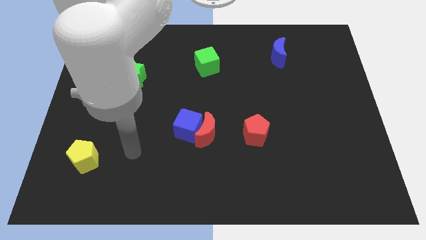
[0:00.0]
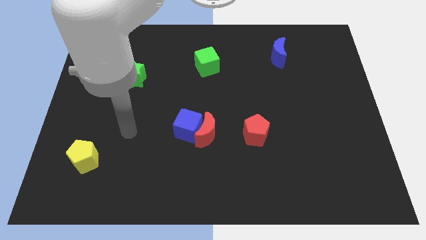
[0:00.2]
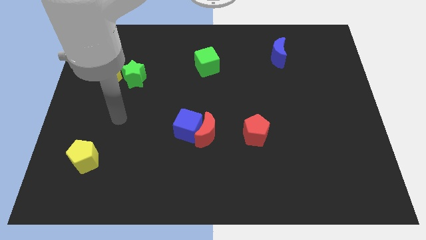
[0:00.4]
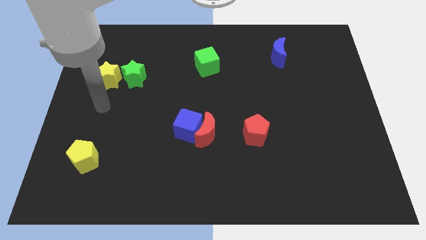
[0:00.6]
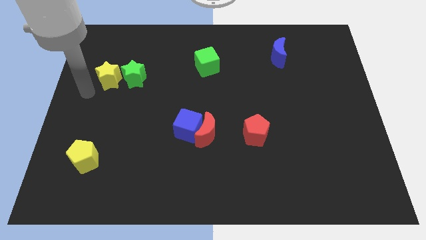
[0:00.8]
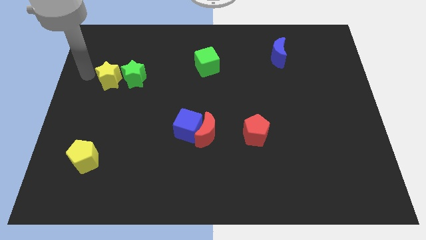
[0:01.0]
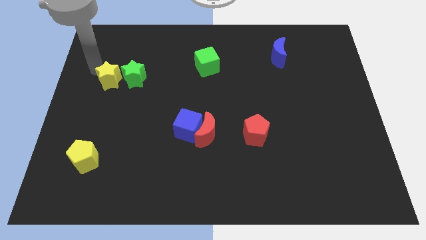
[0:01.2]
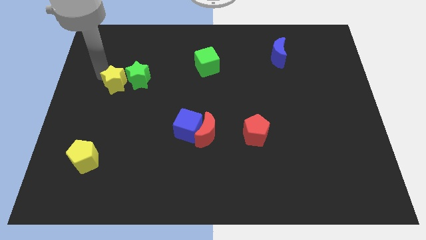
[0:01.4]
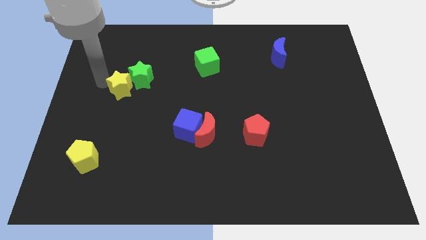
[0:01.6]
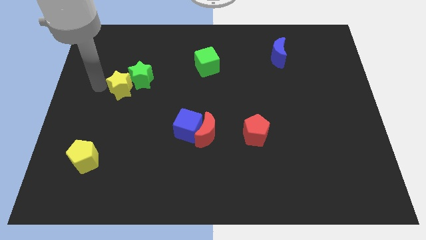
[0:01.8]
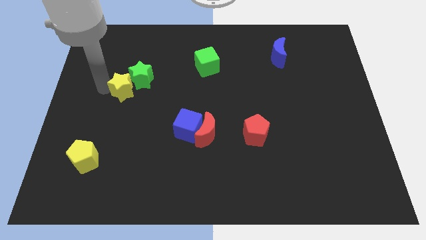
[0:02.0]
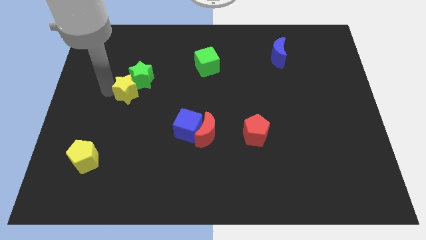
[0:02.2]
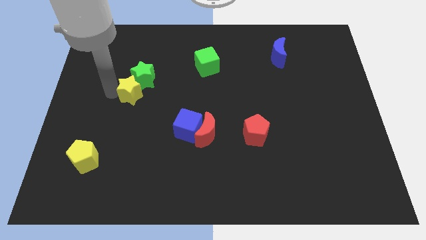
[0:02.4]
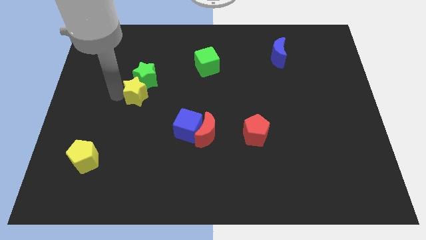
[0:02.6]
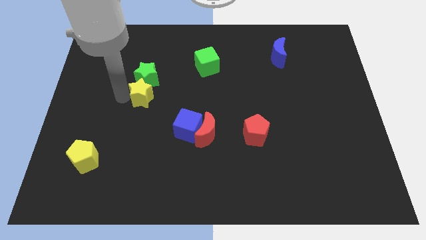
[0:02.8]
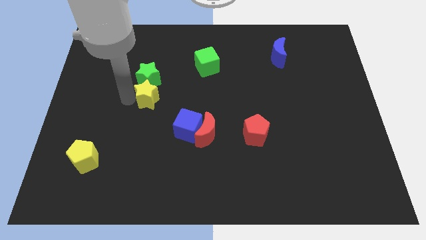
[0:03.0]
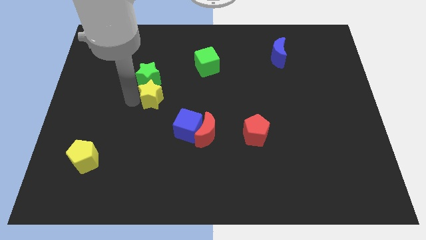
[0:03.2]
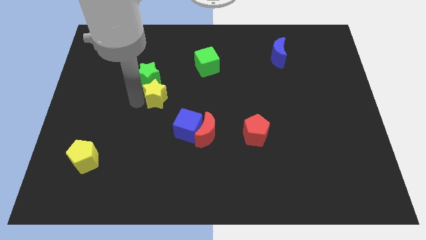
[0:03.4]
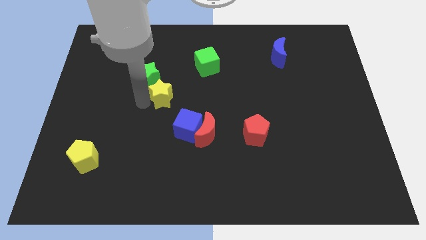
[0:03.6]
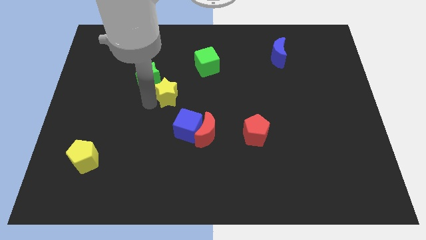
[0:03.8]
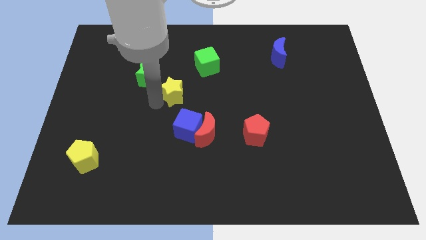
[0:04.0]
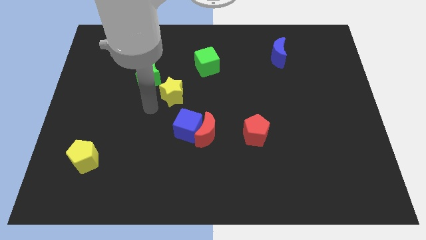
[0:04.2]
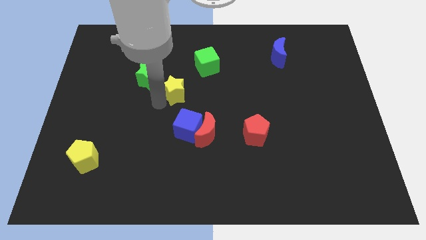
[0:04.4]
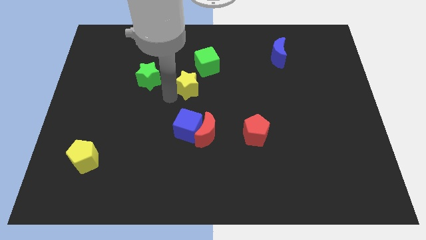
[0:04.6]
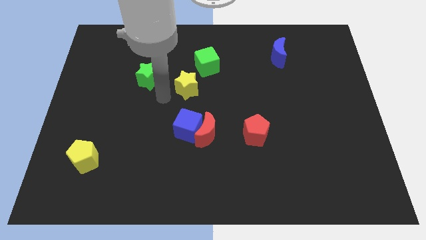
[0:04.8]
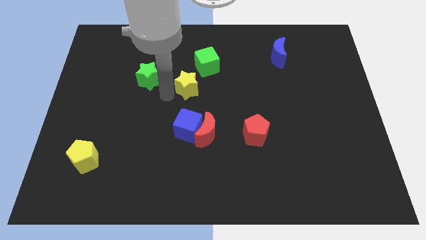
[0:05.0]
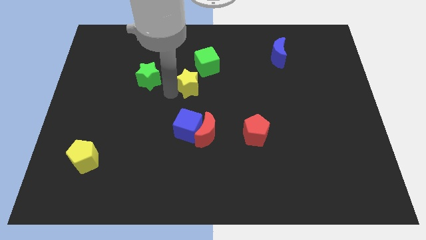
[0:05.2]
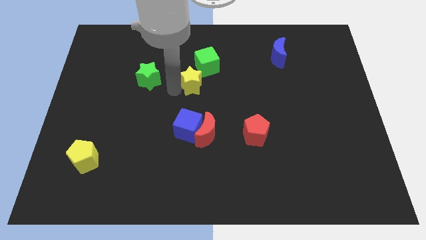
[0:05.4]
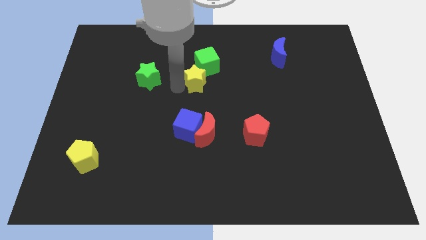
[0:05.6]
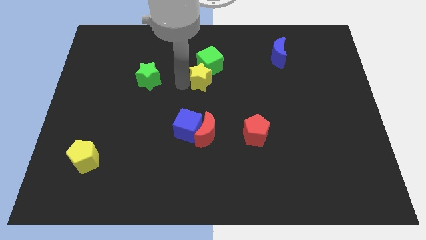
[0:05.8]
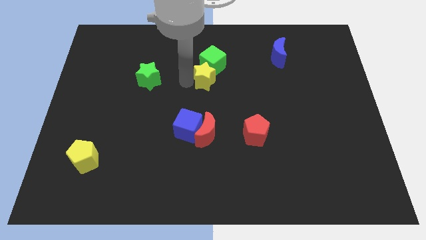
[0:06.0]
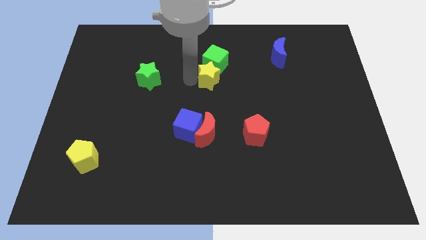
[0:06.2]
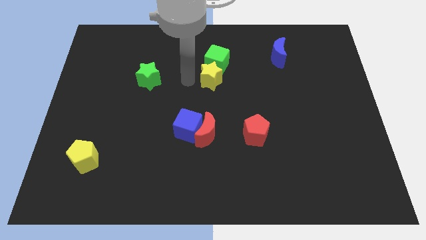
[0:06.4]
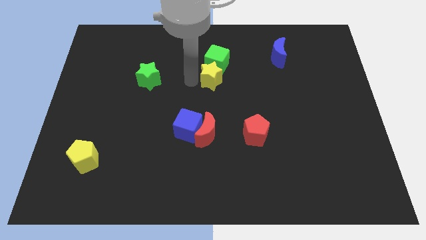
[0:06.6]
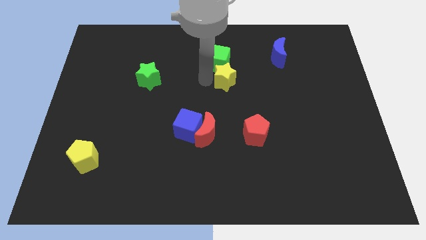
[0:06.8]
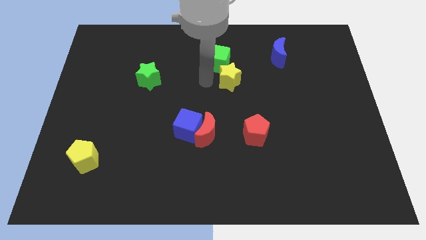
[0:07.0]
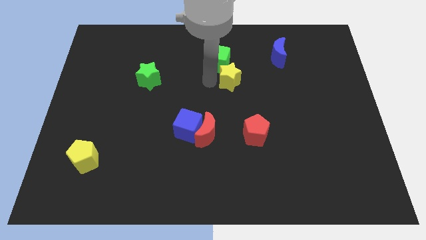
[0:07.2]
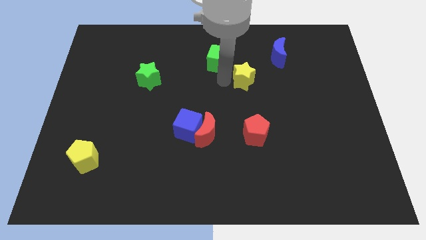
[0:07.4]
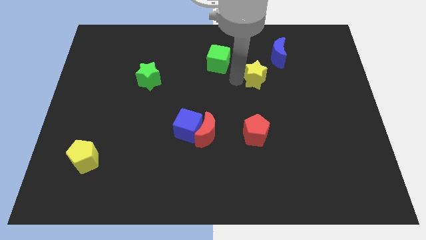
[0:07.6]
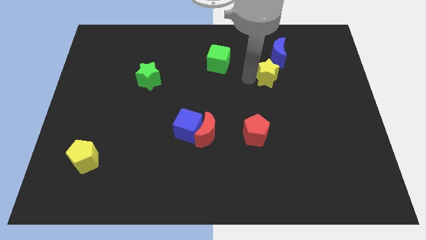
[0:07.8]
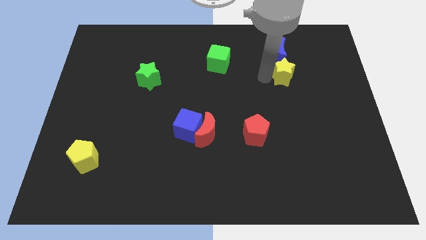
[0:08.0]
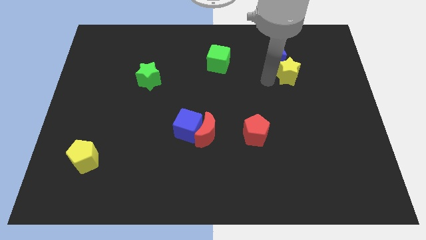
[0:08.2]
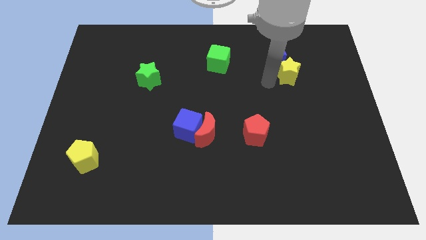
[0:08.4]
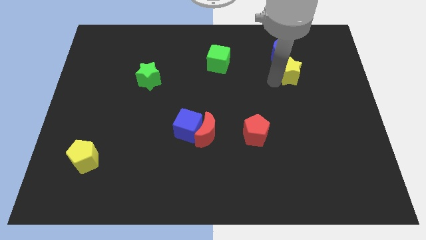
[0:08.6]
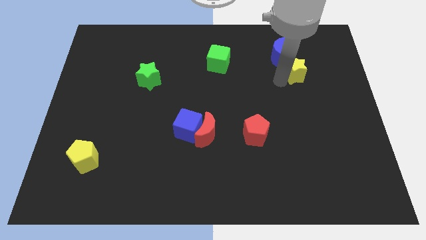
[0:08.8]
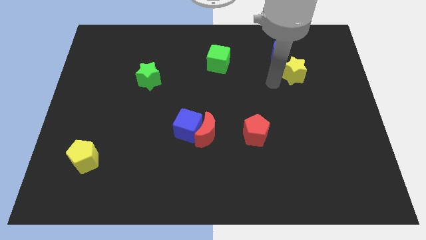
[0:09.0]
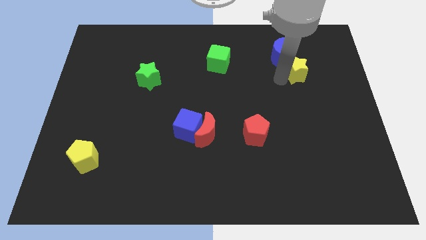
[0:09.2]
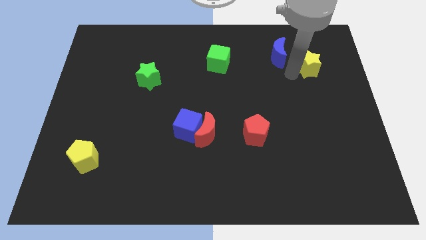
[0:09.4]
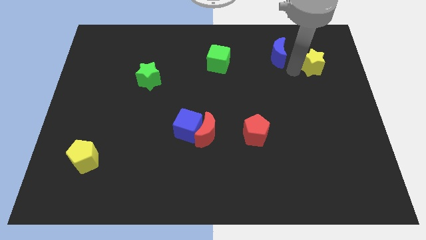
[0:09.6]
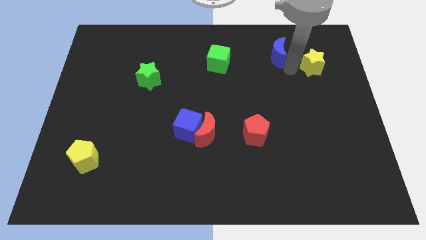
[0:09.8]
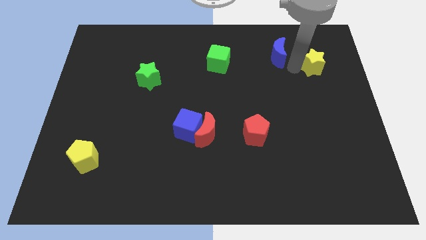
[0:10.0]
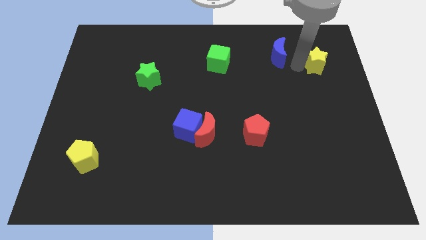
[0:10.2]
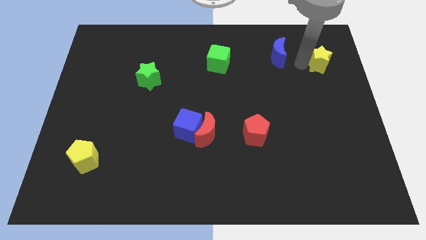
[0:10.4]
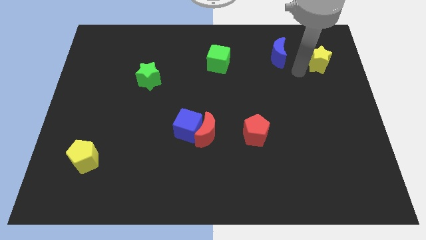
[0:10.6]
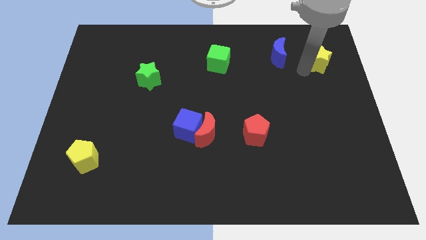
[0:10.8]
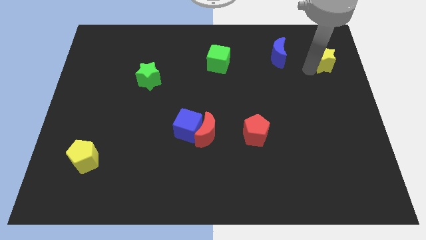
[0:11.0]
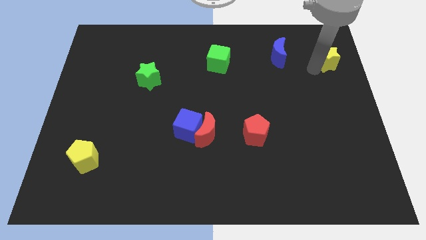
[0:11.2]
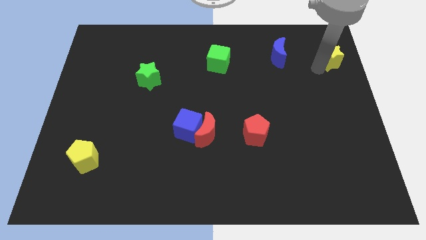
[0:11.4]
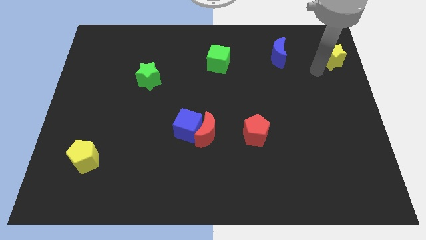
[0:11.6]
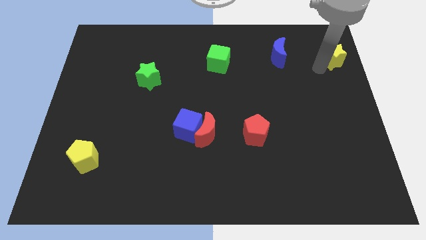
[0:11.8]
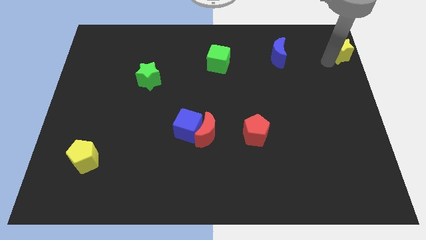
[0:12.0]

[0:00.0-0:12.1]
push the yellow star to the top right of the board

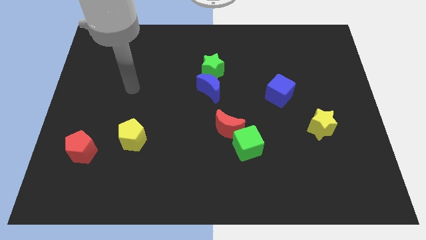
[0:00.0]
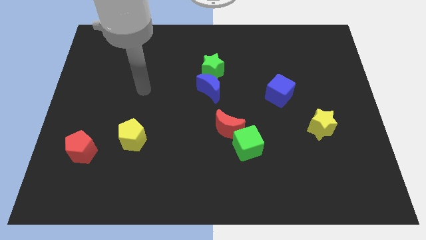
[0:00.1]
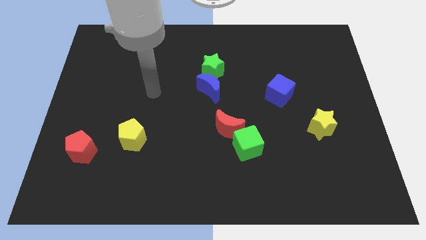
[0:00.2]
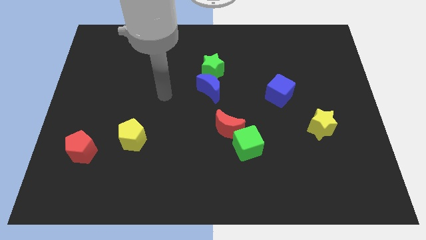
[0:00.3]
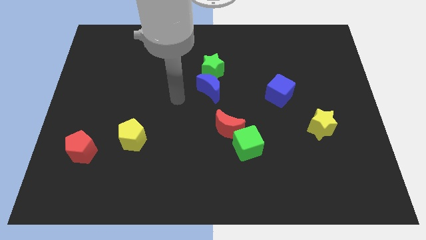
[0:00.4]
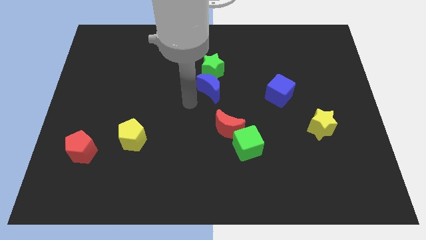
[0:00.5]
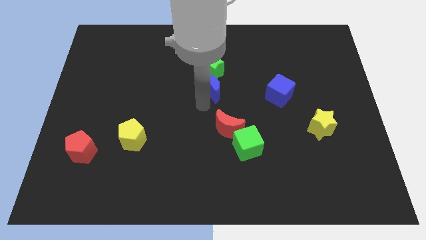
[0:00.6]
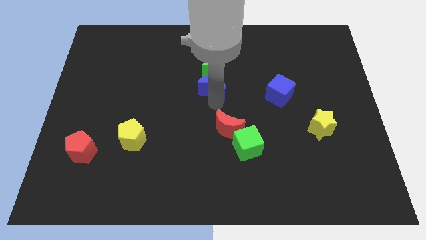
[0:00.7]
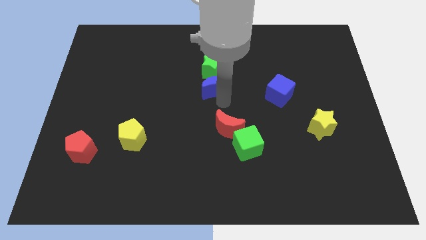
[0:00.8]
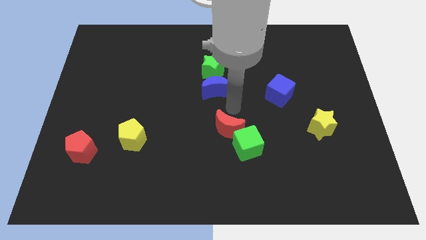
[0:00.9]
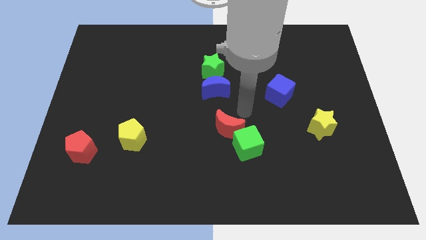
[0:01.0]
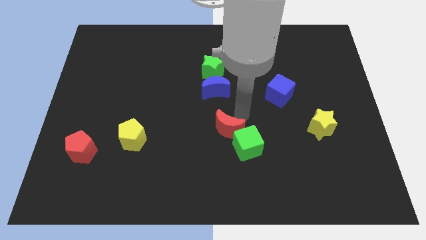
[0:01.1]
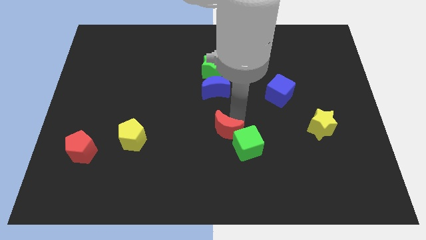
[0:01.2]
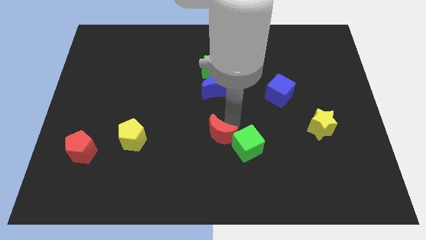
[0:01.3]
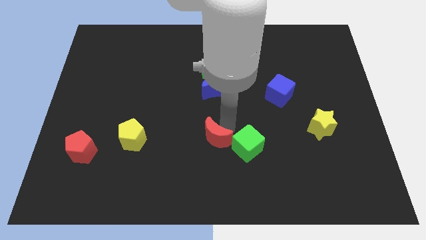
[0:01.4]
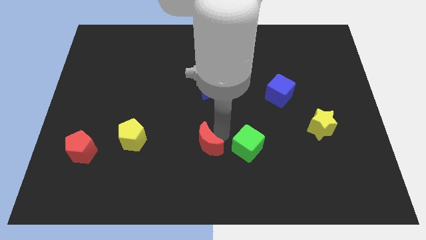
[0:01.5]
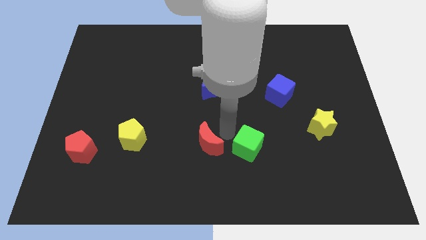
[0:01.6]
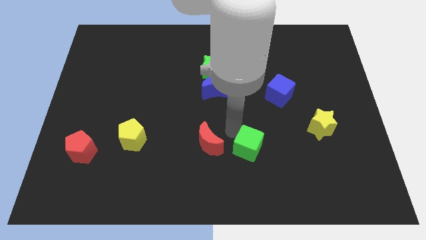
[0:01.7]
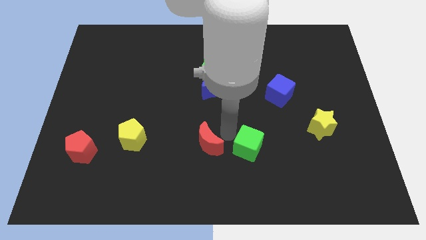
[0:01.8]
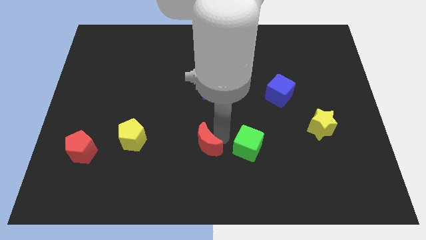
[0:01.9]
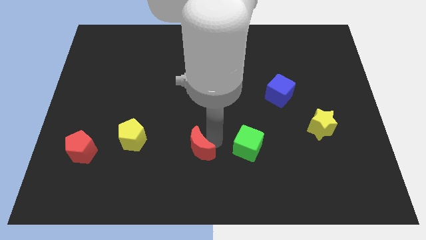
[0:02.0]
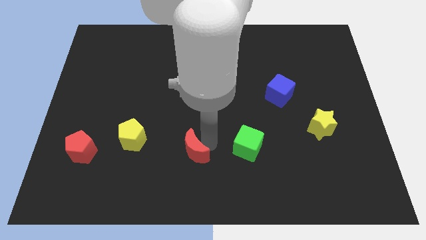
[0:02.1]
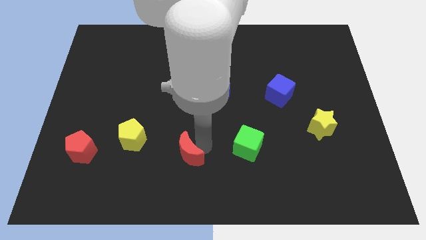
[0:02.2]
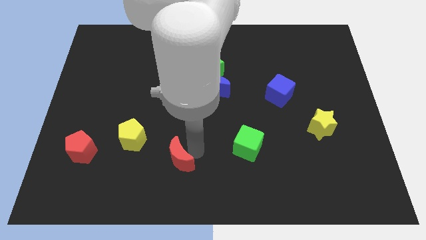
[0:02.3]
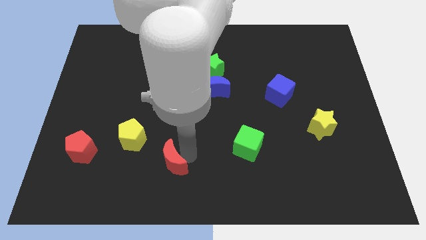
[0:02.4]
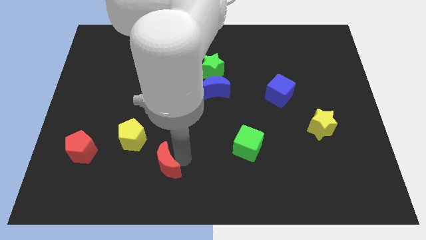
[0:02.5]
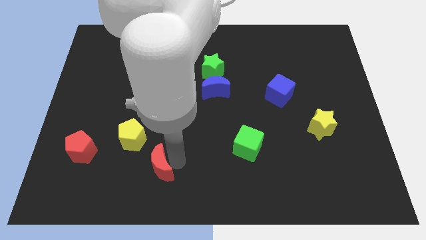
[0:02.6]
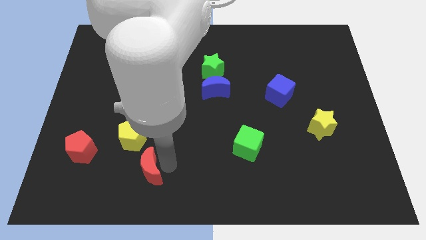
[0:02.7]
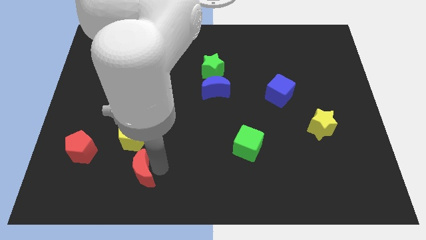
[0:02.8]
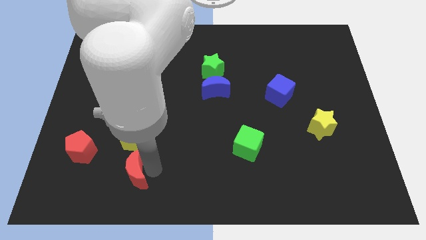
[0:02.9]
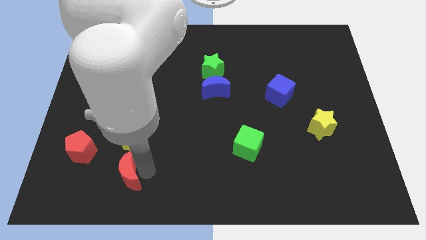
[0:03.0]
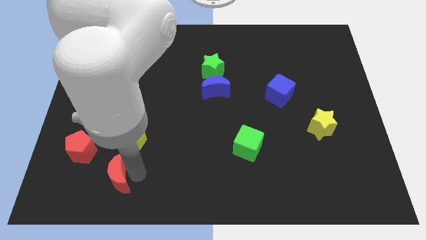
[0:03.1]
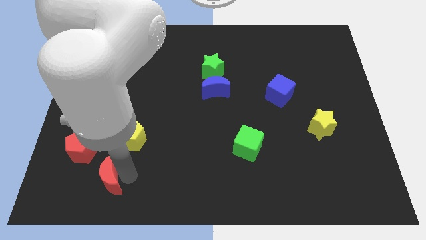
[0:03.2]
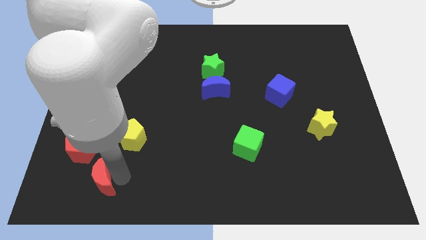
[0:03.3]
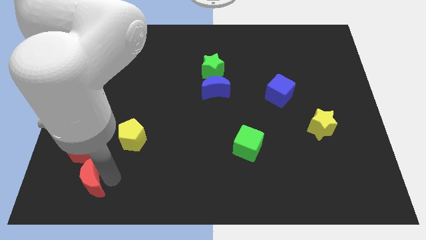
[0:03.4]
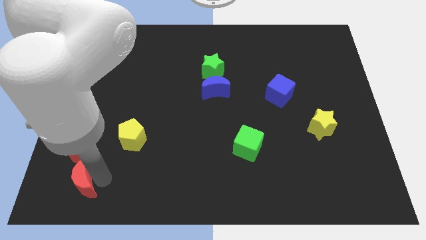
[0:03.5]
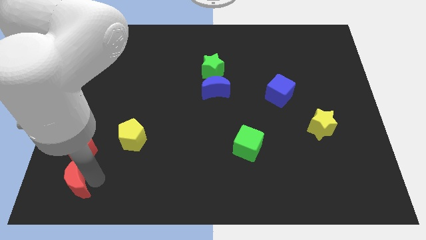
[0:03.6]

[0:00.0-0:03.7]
slide the red moon to the lower left corner
